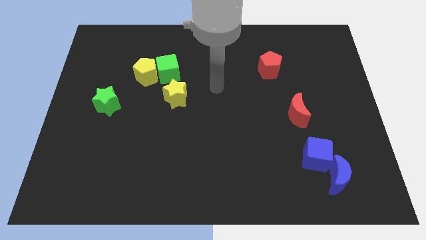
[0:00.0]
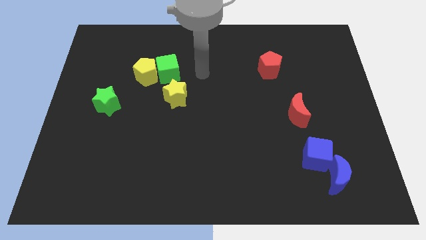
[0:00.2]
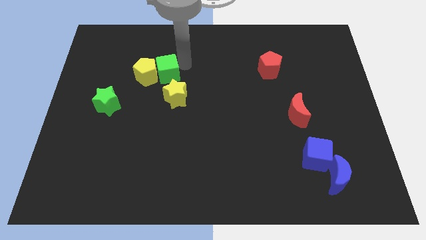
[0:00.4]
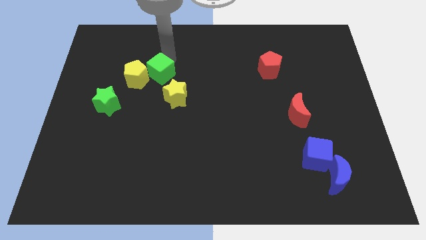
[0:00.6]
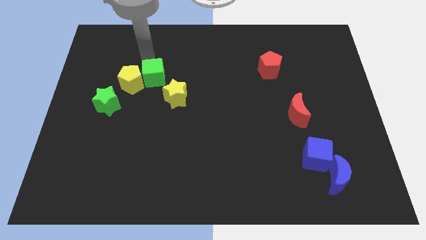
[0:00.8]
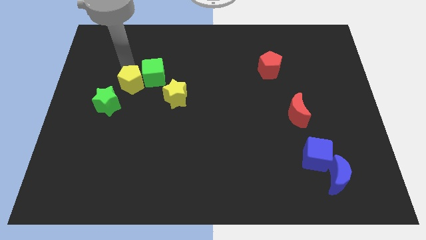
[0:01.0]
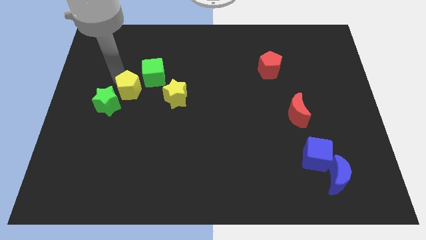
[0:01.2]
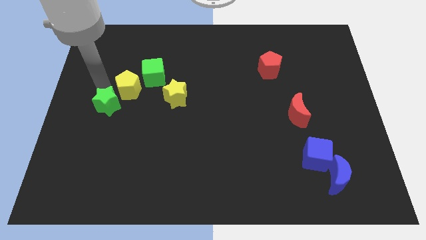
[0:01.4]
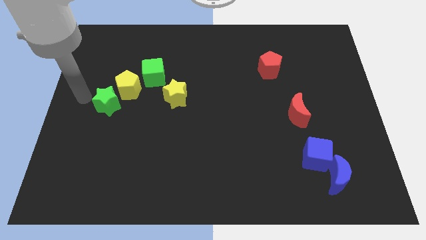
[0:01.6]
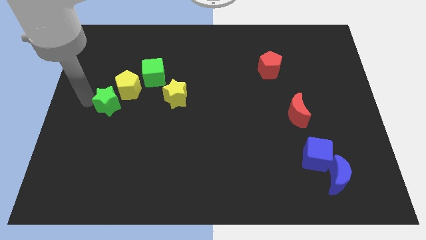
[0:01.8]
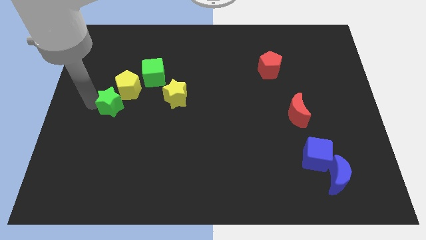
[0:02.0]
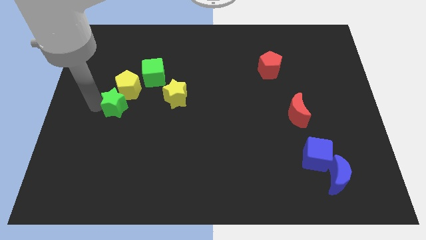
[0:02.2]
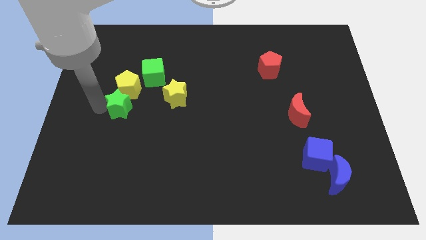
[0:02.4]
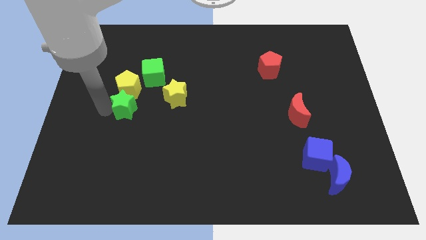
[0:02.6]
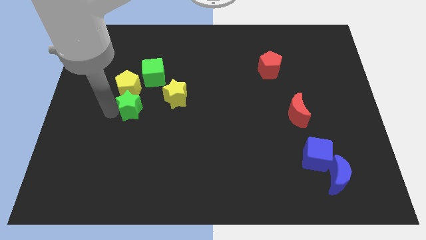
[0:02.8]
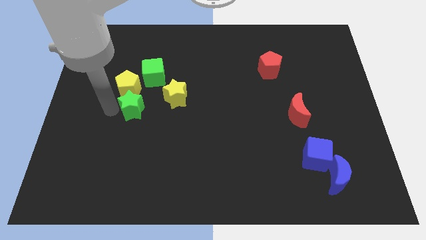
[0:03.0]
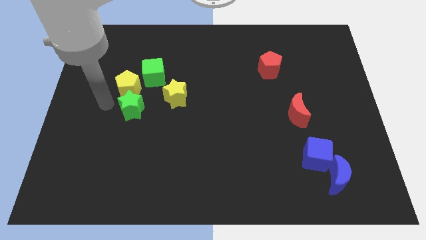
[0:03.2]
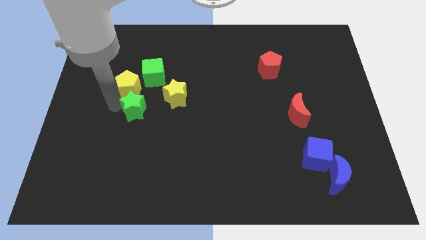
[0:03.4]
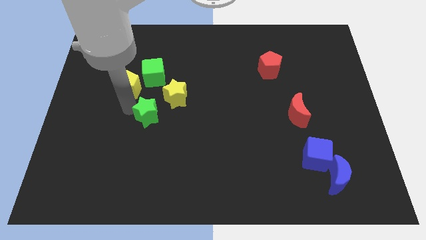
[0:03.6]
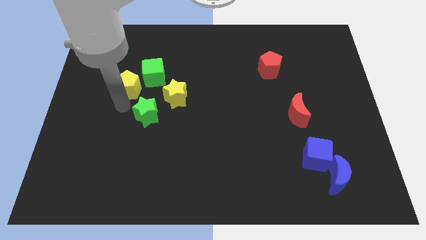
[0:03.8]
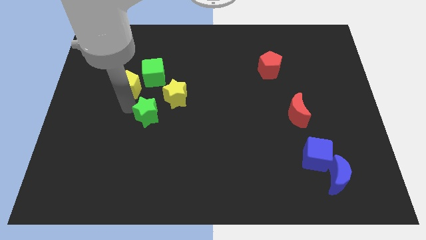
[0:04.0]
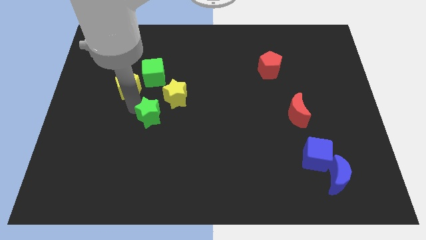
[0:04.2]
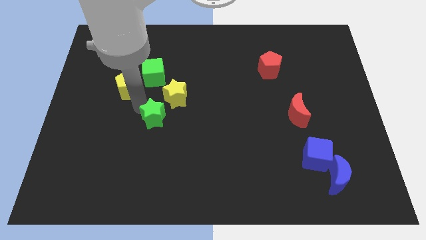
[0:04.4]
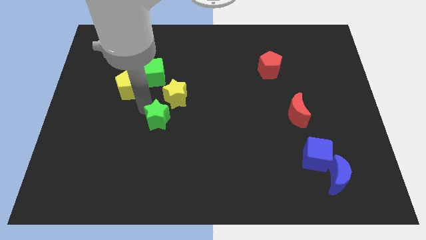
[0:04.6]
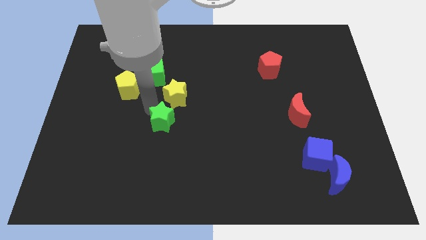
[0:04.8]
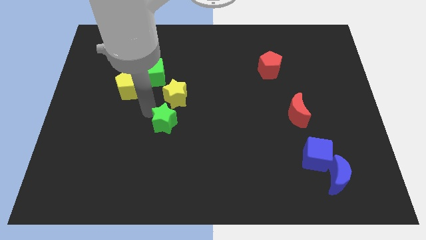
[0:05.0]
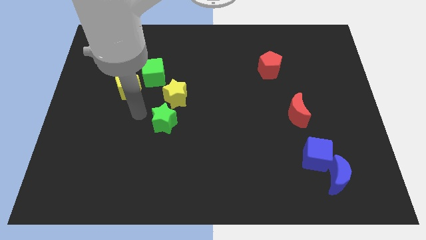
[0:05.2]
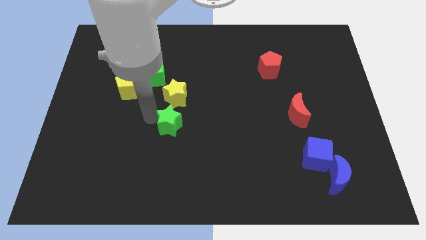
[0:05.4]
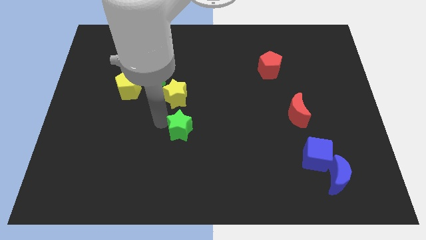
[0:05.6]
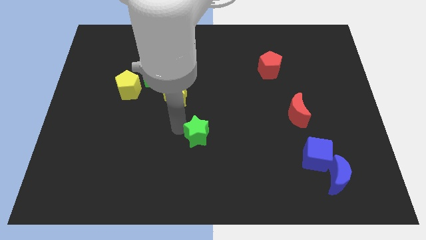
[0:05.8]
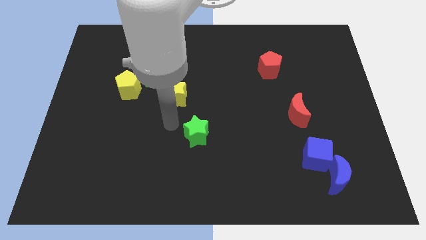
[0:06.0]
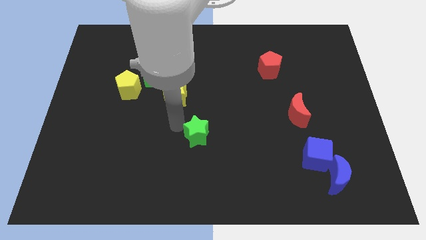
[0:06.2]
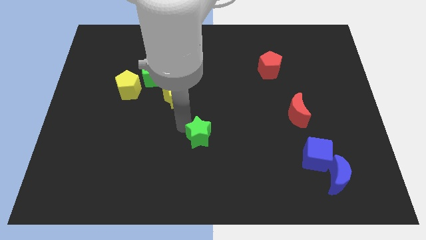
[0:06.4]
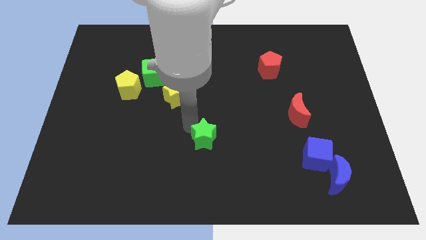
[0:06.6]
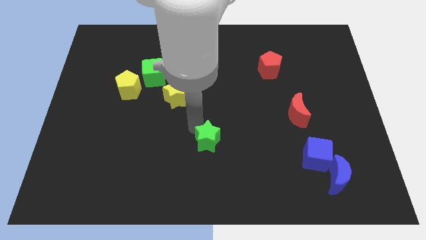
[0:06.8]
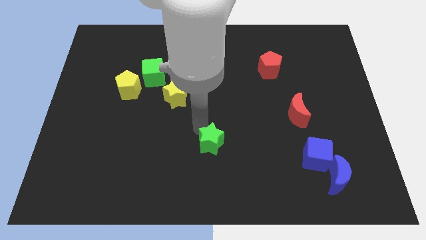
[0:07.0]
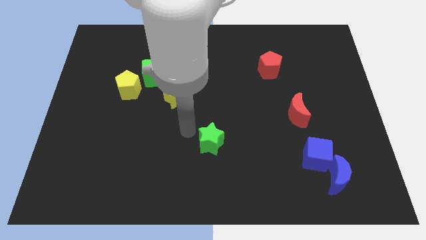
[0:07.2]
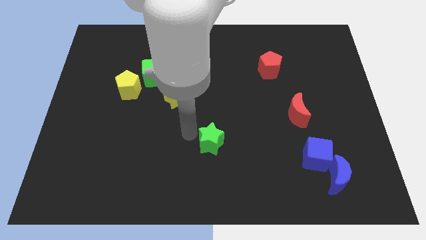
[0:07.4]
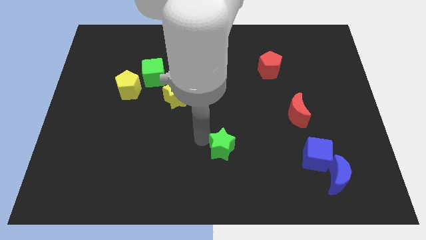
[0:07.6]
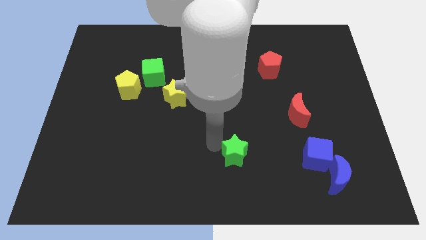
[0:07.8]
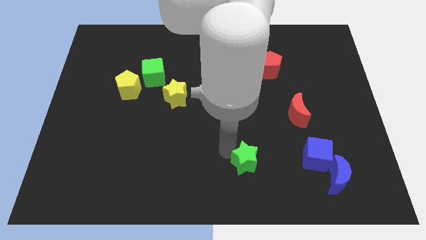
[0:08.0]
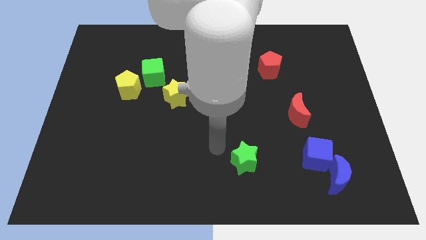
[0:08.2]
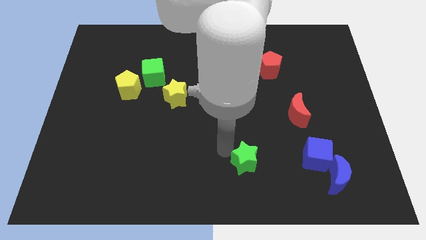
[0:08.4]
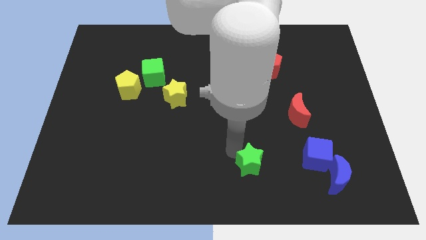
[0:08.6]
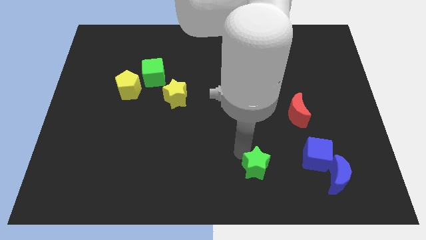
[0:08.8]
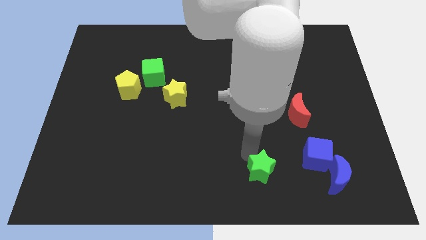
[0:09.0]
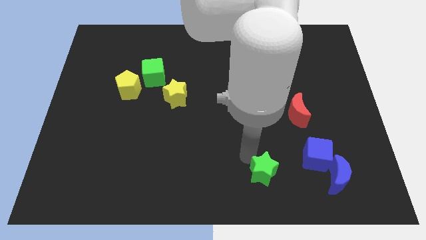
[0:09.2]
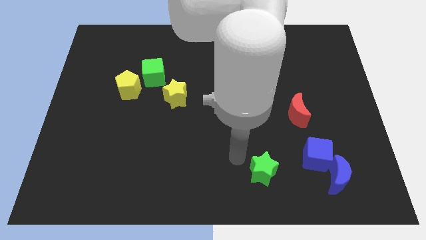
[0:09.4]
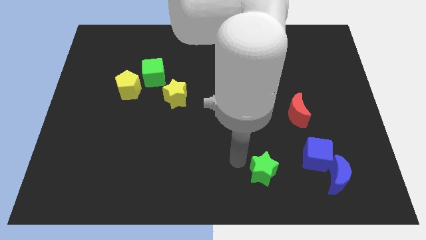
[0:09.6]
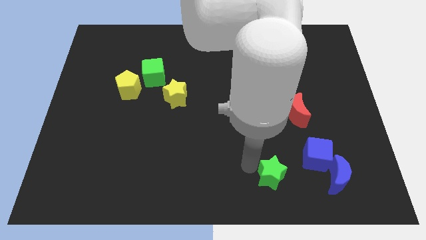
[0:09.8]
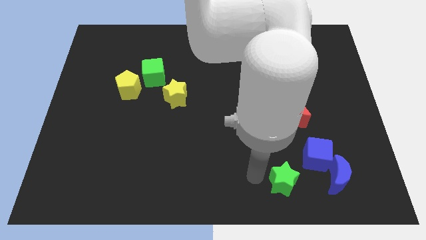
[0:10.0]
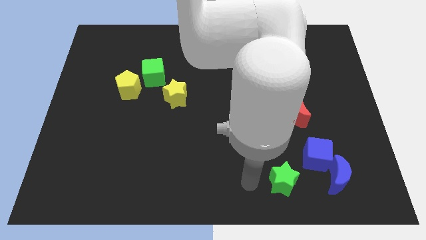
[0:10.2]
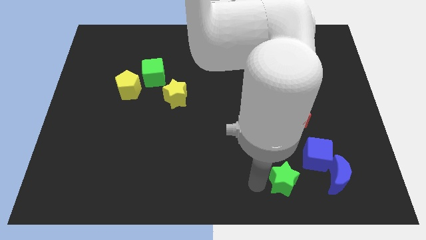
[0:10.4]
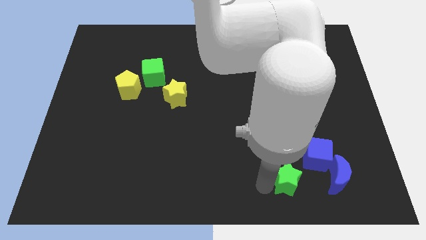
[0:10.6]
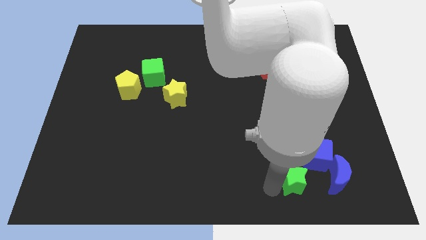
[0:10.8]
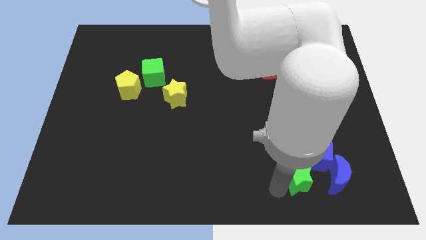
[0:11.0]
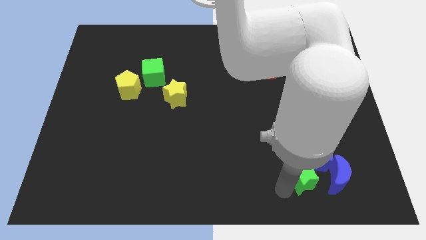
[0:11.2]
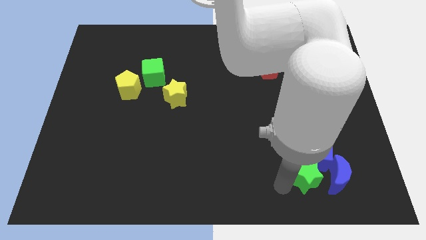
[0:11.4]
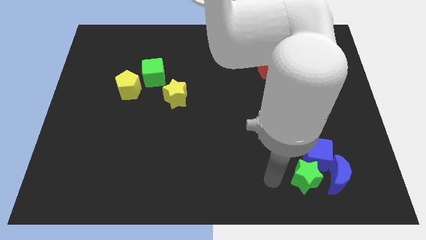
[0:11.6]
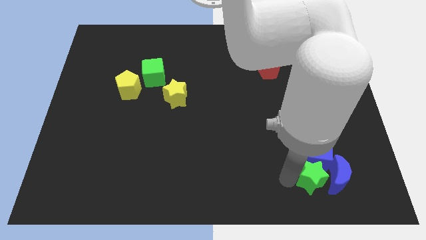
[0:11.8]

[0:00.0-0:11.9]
slide the green star to the blue moon

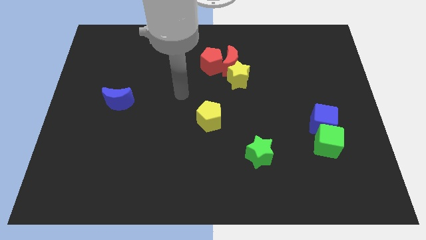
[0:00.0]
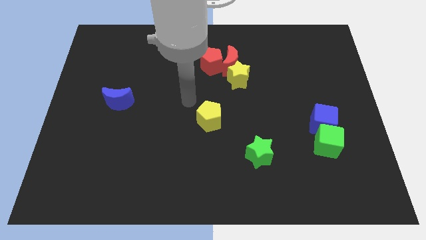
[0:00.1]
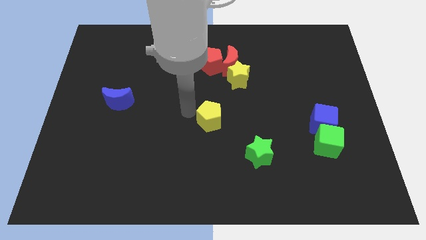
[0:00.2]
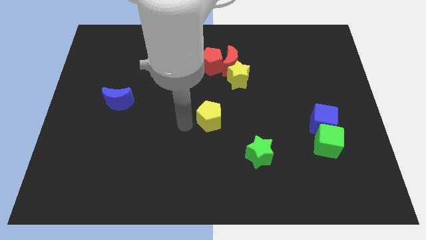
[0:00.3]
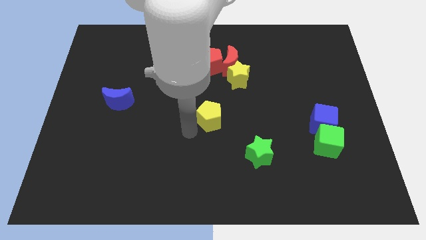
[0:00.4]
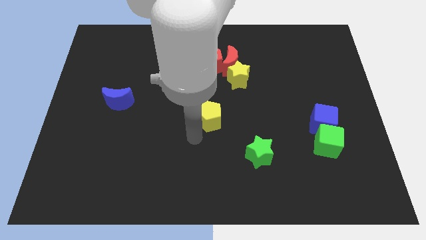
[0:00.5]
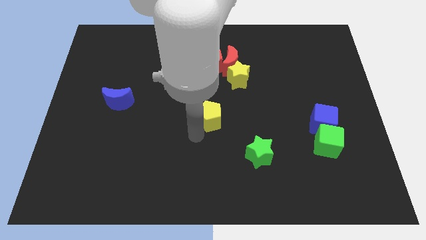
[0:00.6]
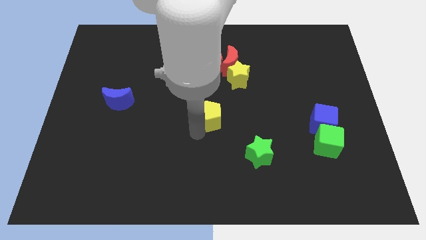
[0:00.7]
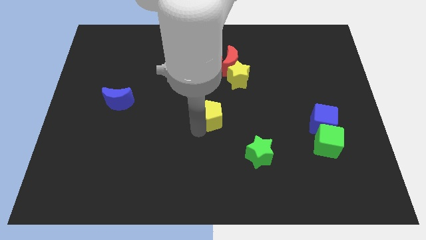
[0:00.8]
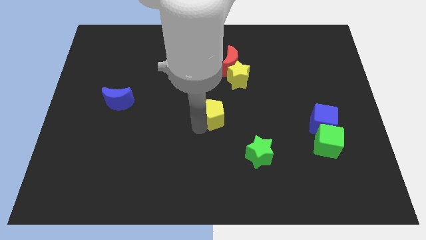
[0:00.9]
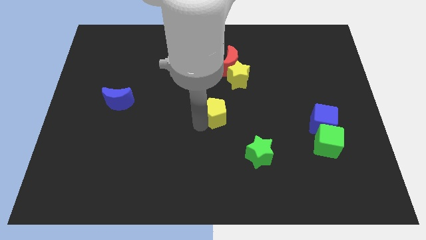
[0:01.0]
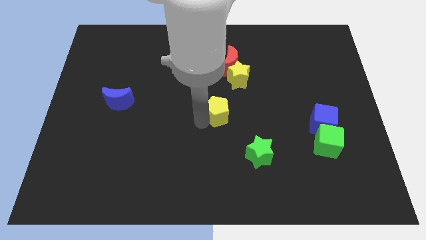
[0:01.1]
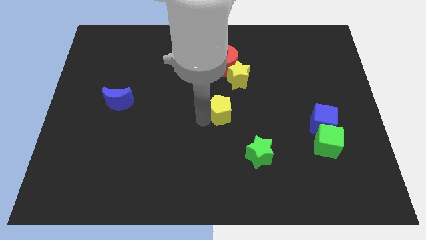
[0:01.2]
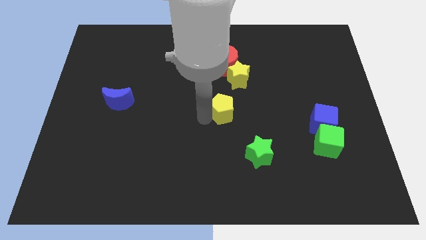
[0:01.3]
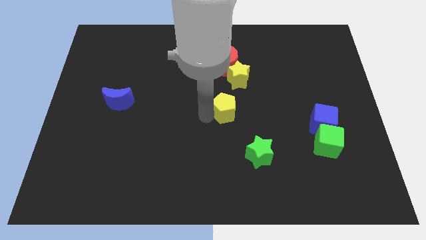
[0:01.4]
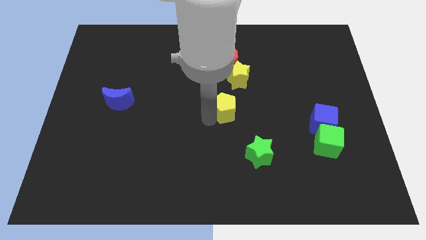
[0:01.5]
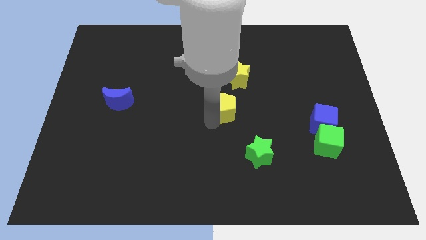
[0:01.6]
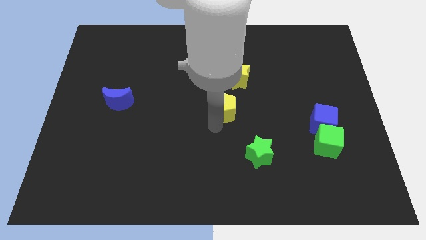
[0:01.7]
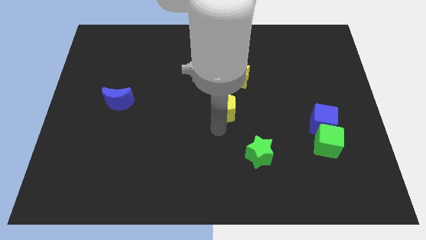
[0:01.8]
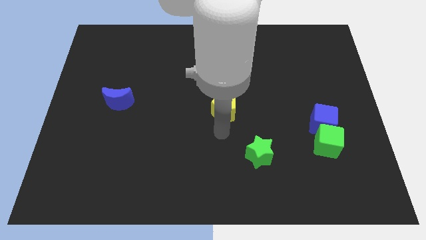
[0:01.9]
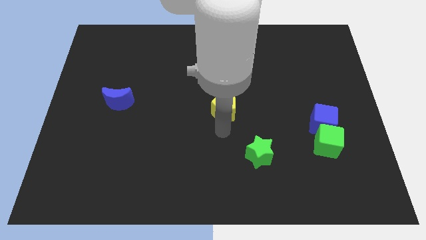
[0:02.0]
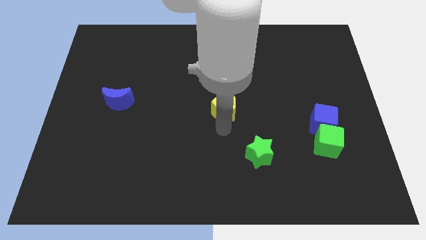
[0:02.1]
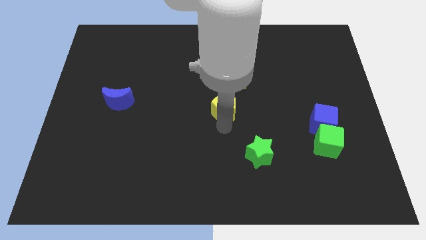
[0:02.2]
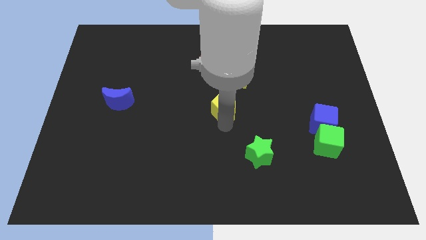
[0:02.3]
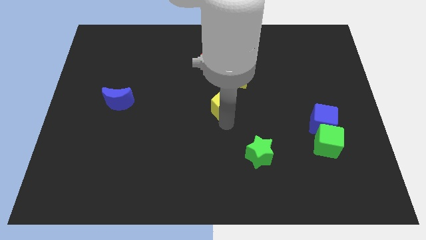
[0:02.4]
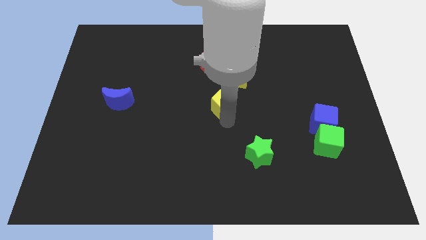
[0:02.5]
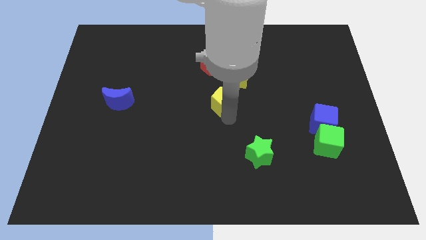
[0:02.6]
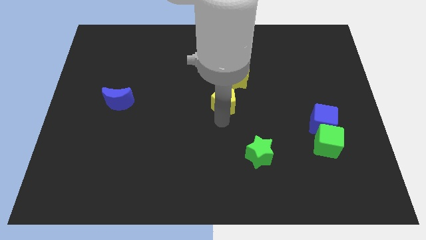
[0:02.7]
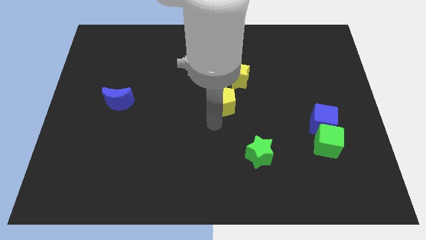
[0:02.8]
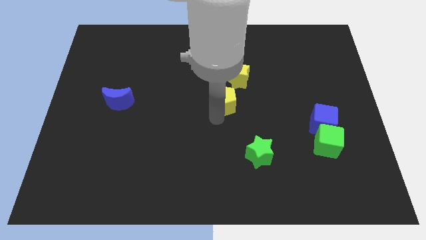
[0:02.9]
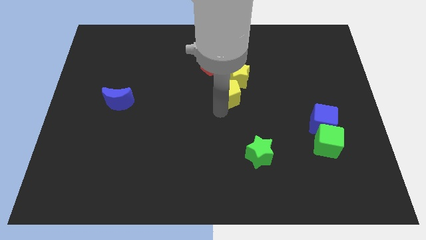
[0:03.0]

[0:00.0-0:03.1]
put the yellow pentagon towards the yellow star
